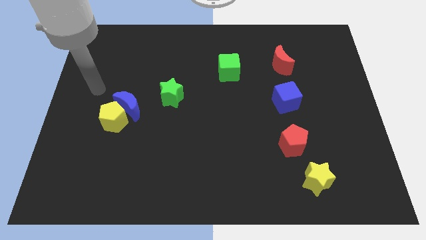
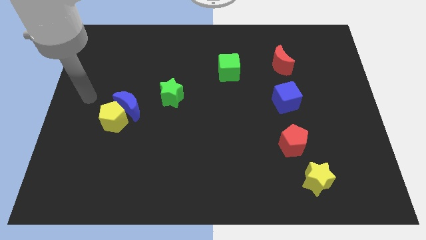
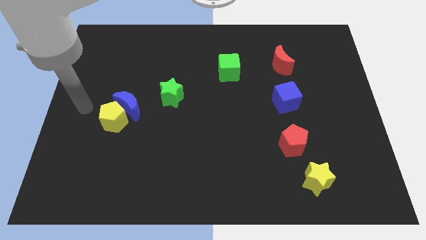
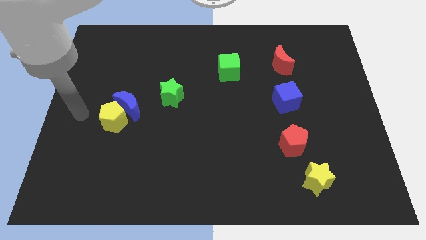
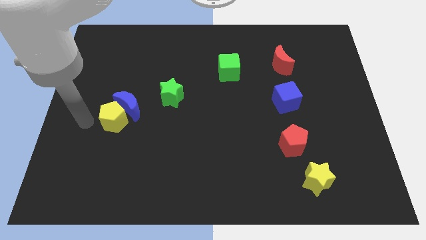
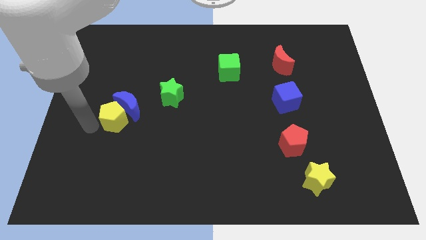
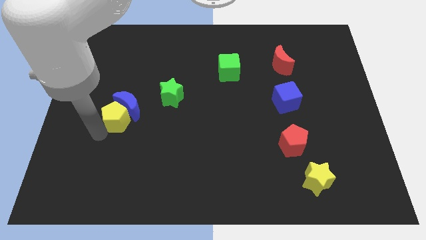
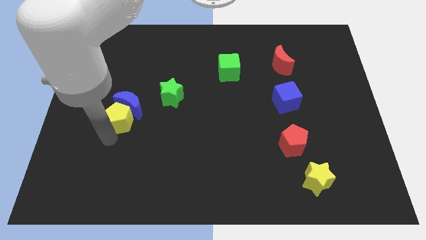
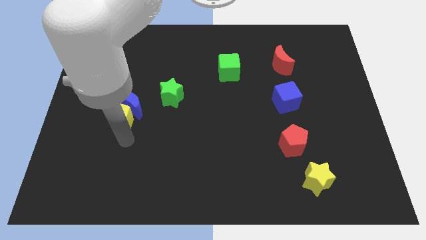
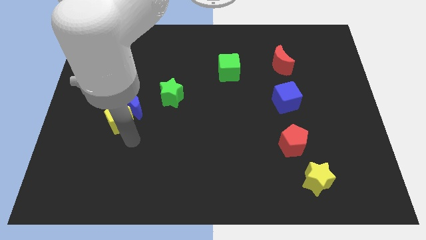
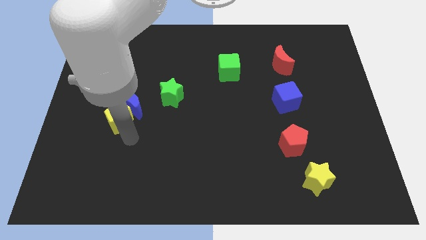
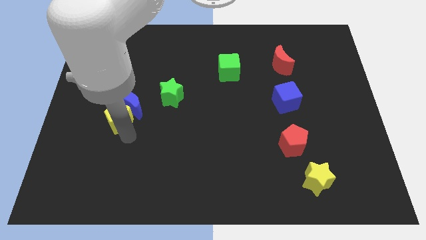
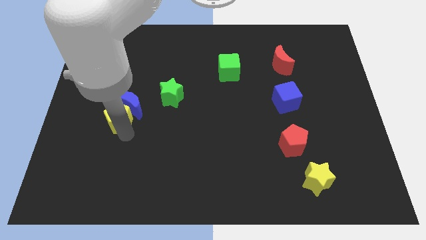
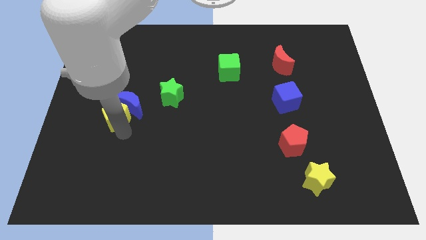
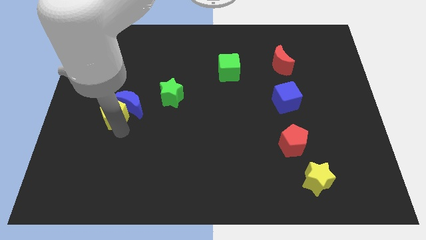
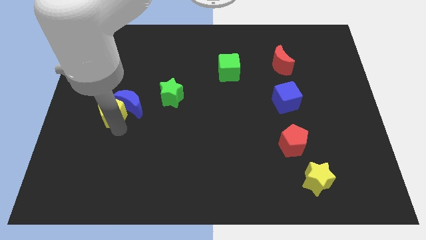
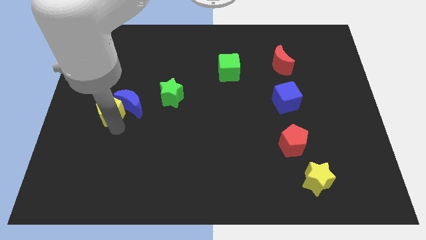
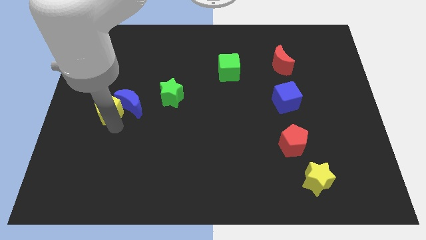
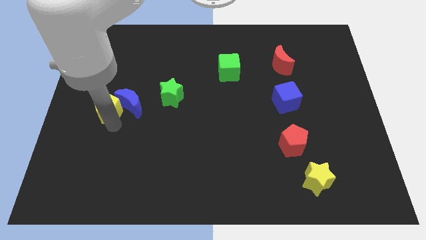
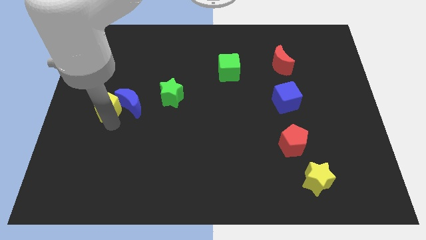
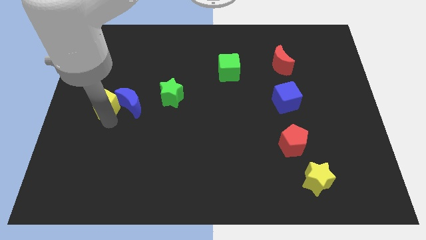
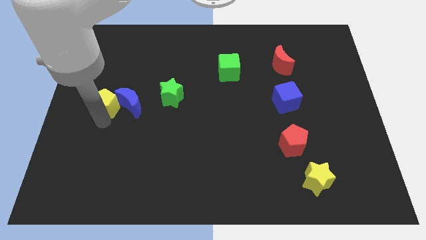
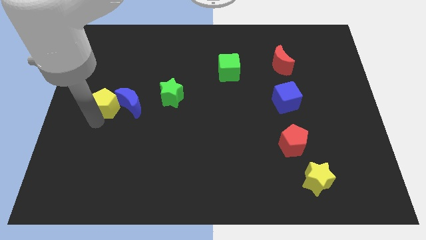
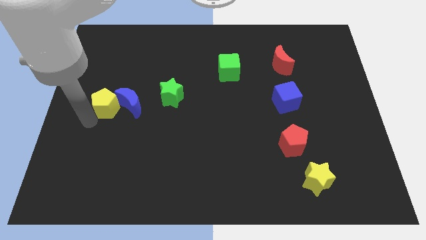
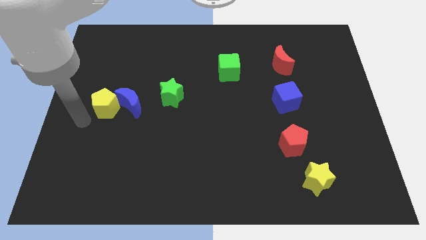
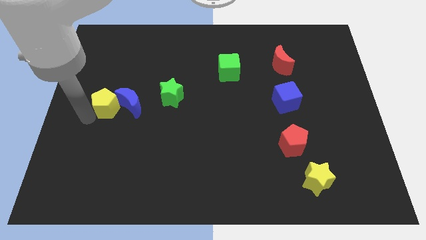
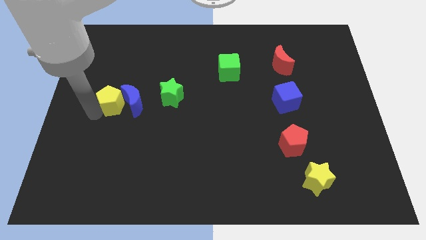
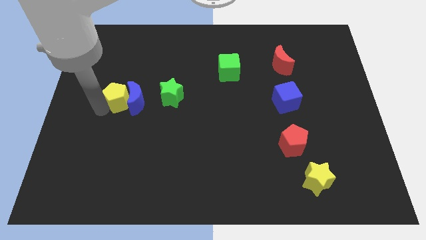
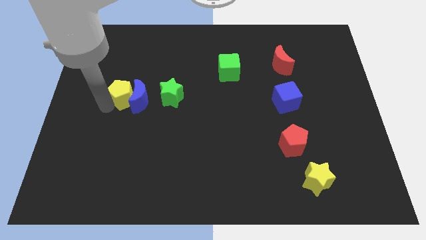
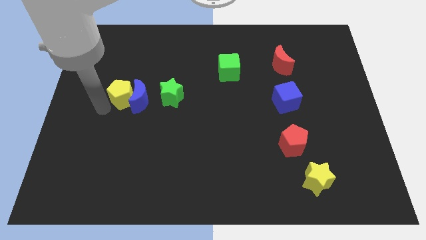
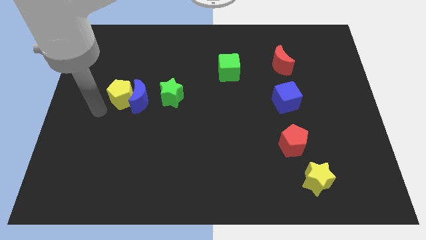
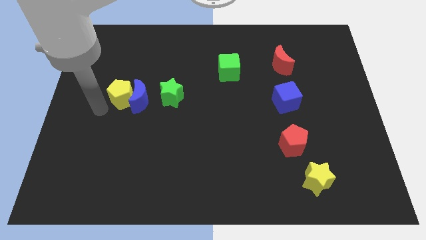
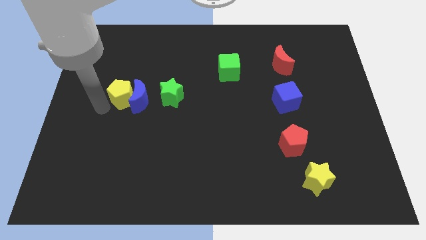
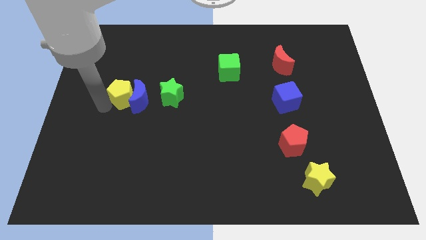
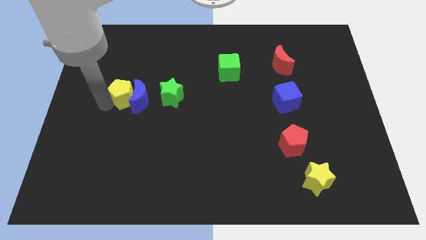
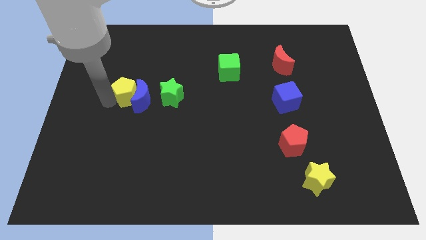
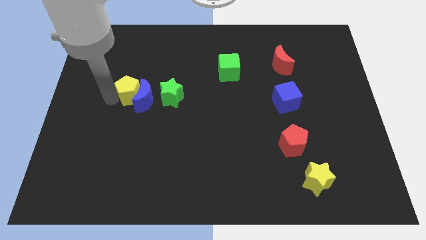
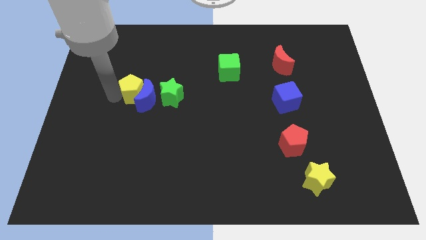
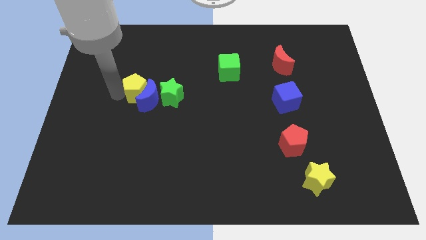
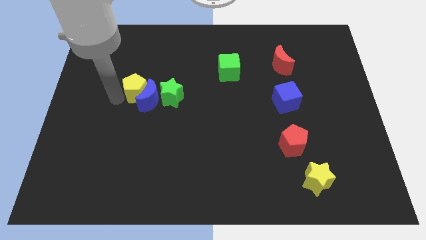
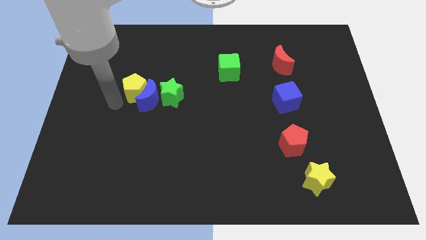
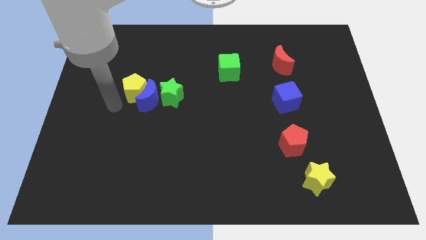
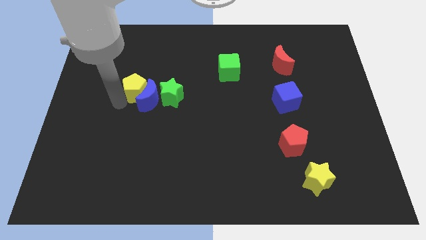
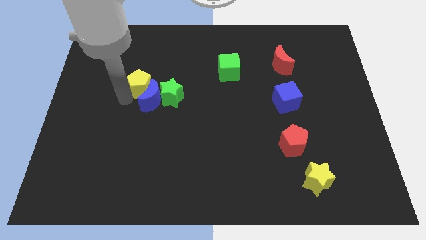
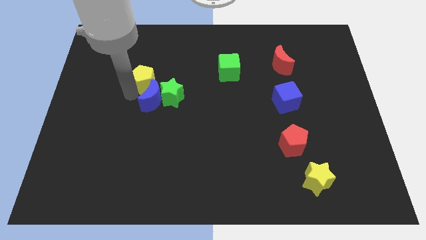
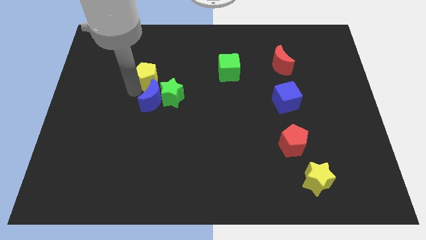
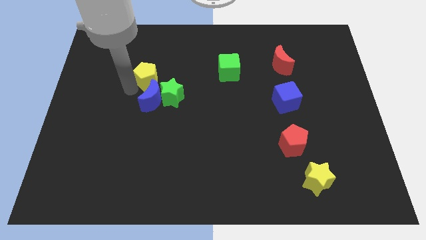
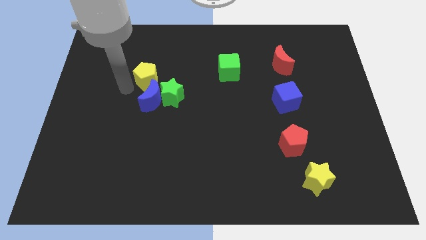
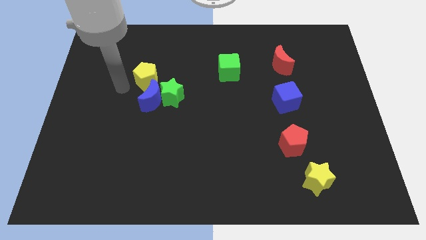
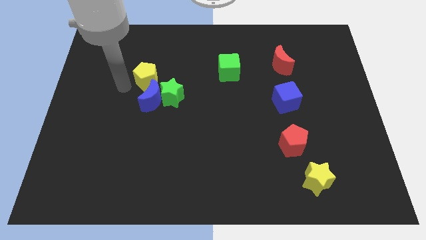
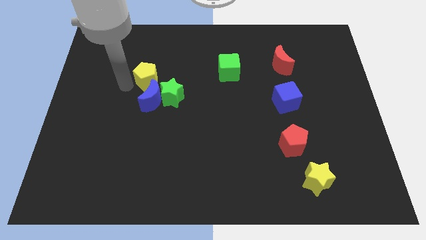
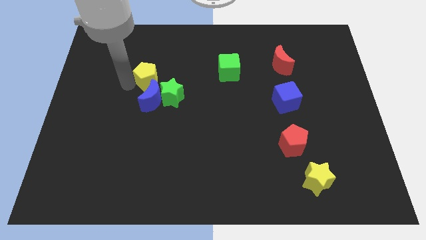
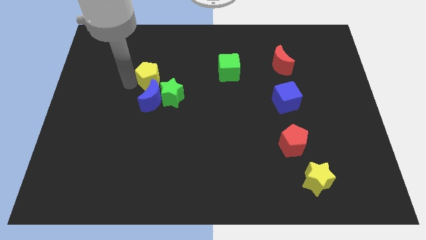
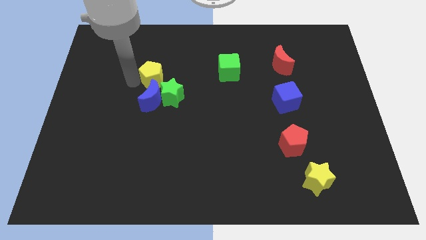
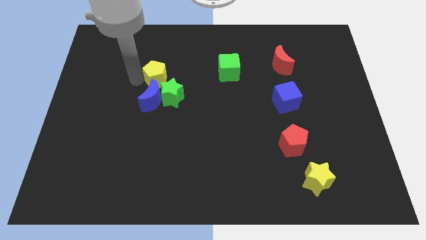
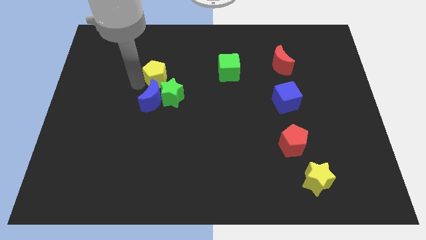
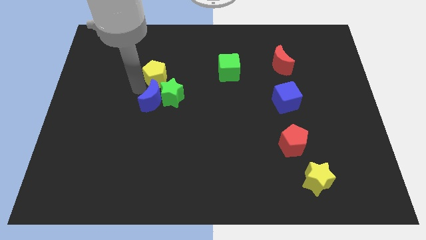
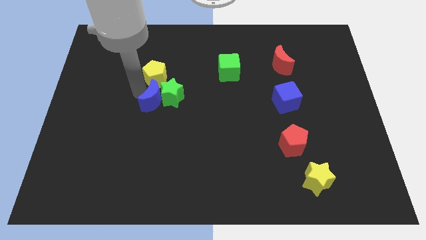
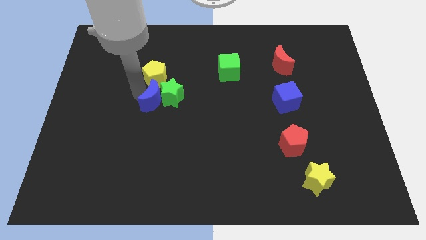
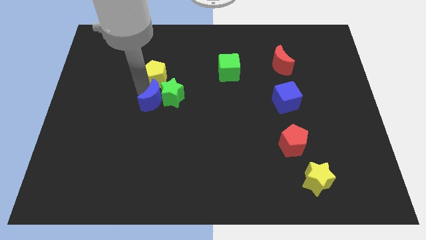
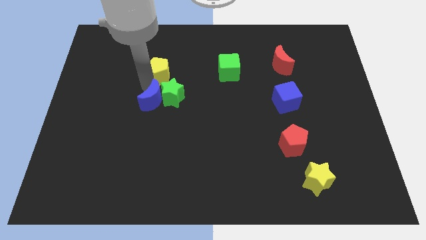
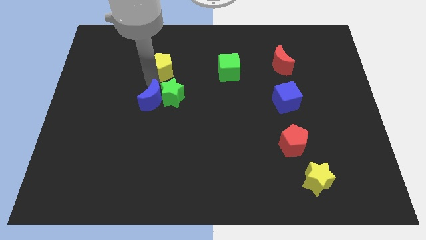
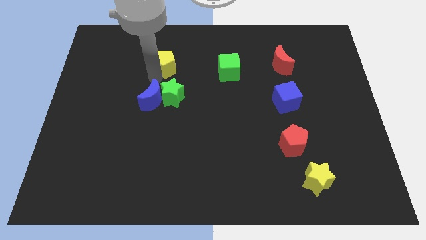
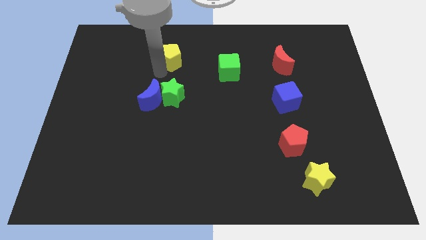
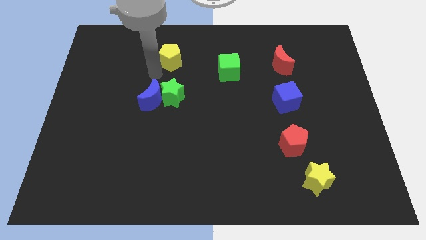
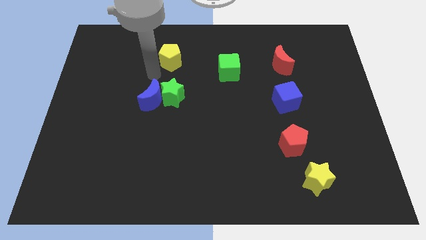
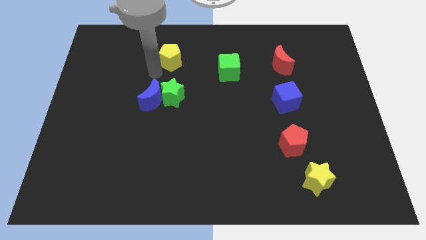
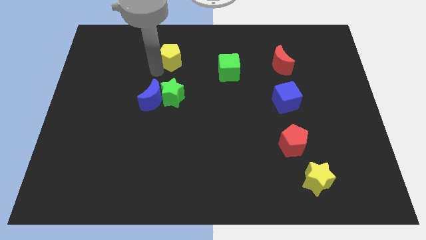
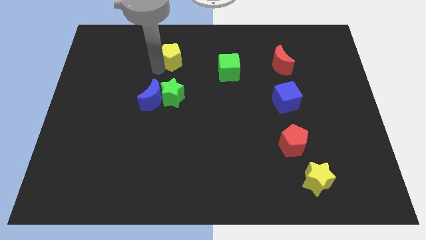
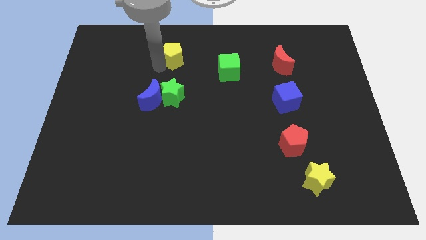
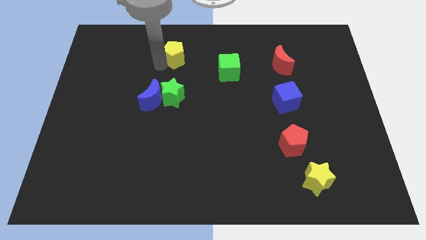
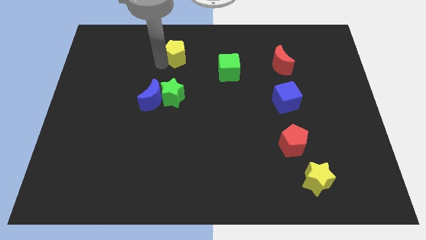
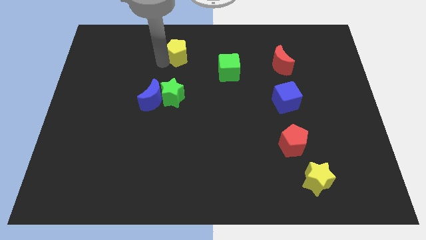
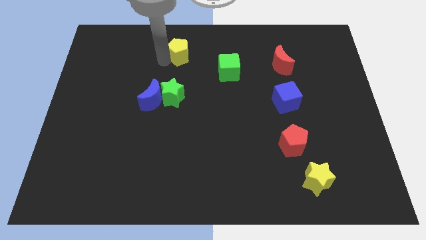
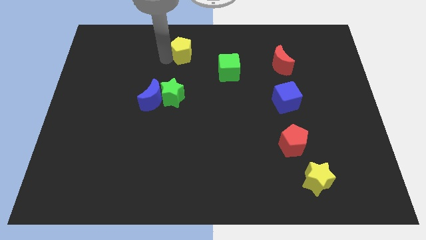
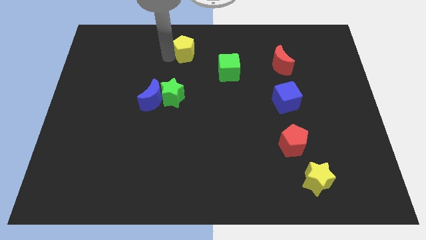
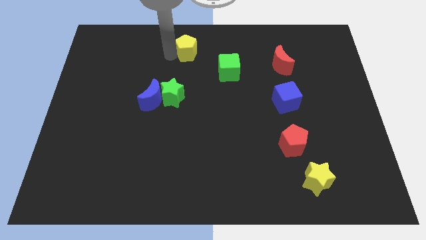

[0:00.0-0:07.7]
push the yellow pentagon to the top side
